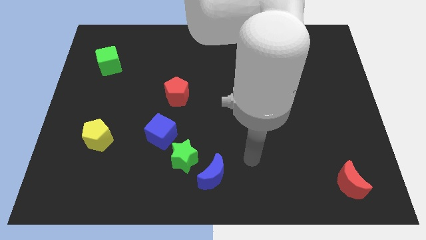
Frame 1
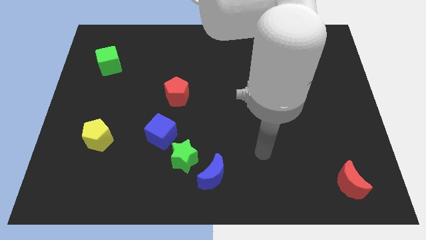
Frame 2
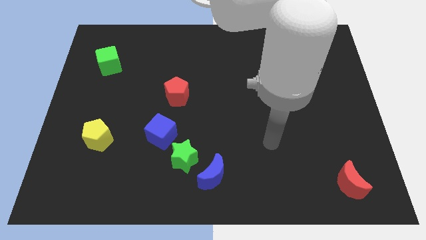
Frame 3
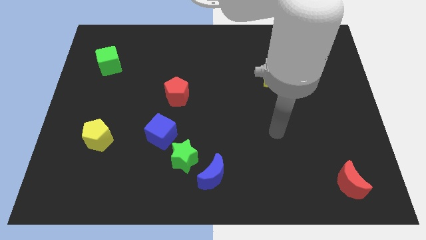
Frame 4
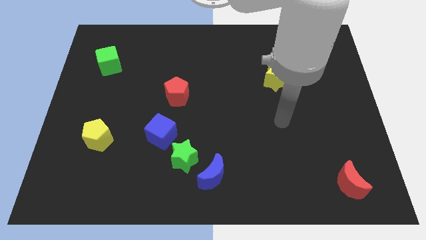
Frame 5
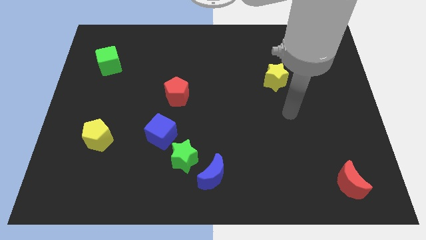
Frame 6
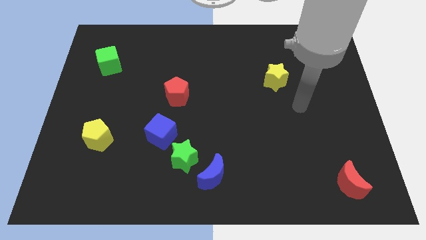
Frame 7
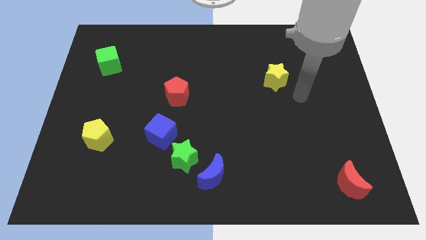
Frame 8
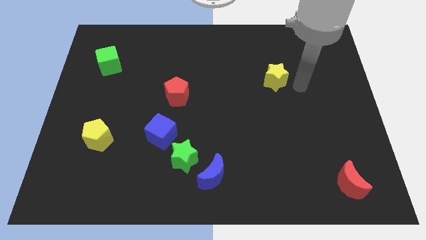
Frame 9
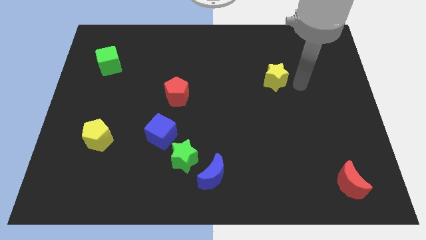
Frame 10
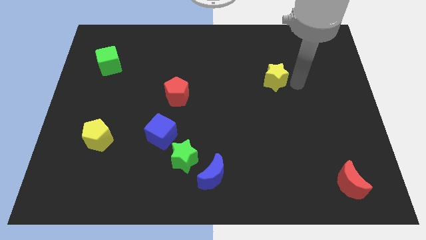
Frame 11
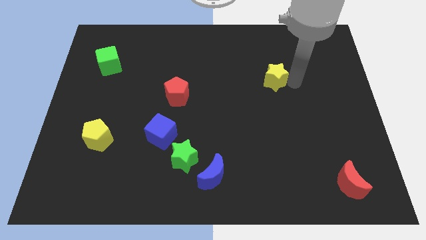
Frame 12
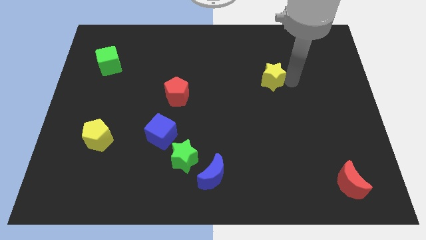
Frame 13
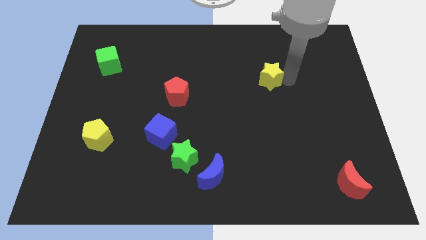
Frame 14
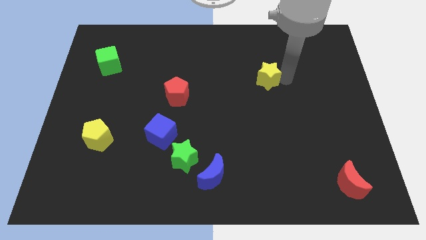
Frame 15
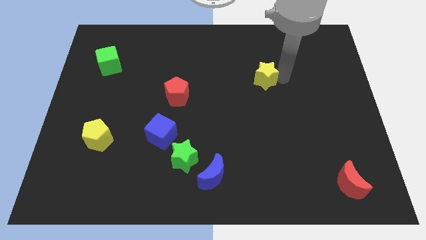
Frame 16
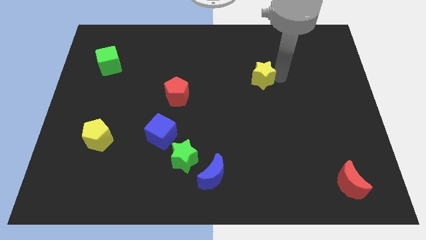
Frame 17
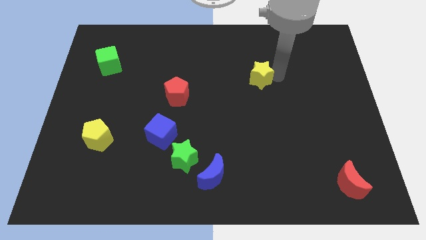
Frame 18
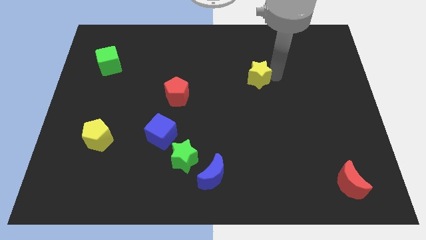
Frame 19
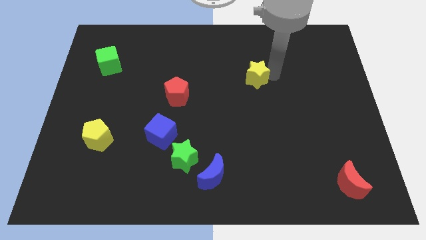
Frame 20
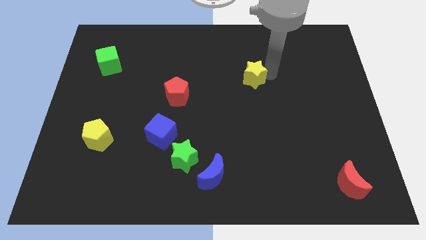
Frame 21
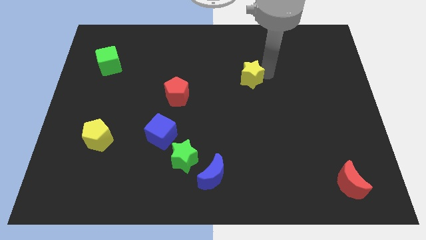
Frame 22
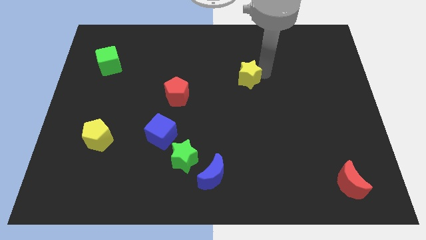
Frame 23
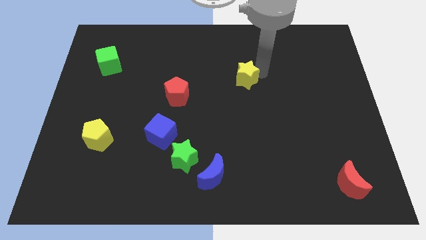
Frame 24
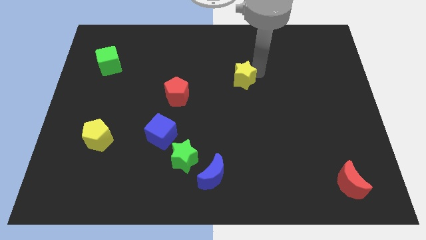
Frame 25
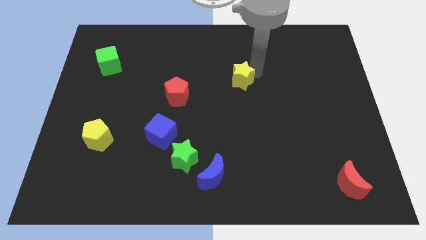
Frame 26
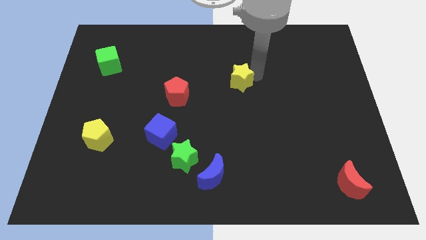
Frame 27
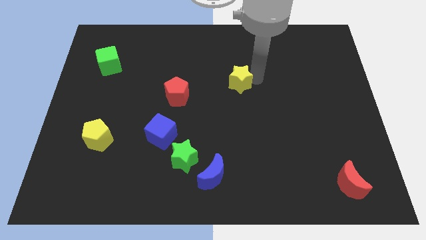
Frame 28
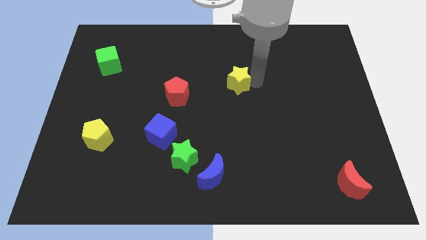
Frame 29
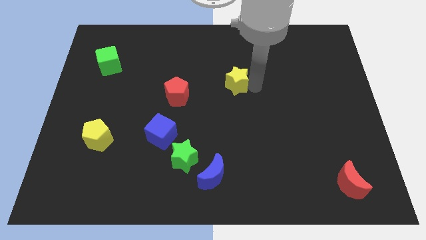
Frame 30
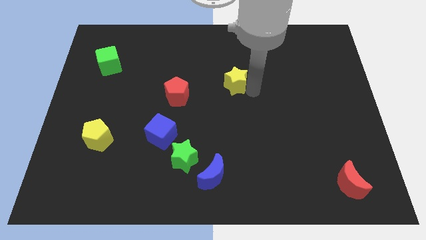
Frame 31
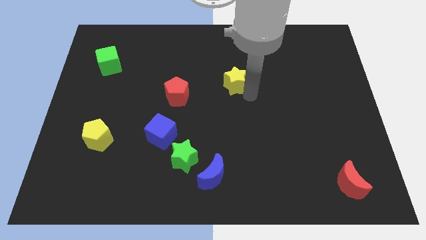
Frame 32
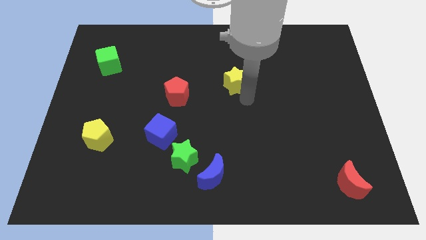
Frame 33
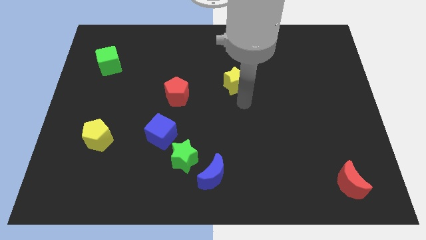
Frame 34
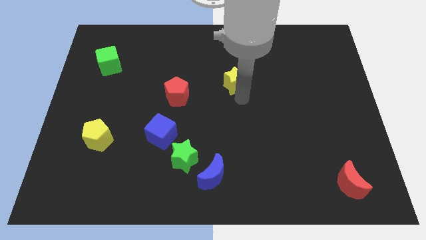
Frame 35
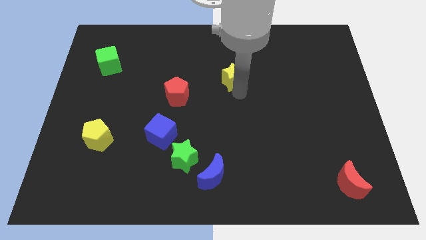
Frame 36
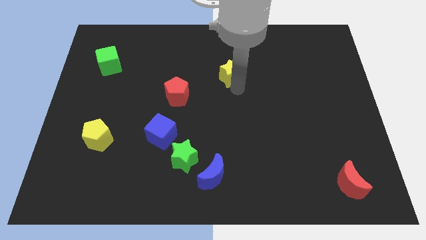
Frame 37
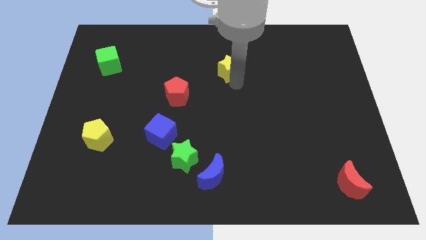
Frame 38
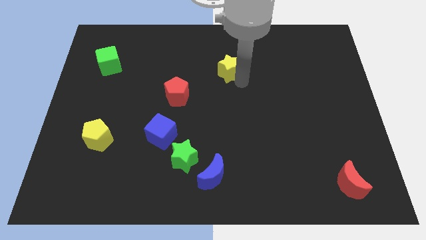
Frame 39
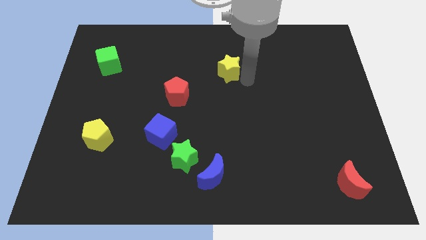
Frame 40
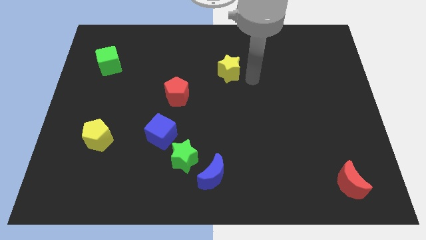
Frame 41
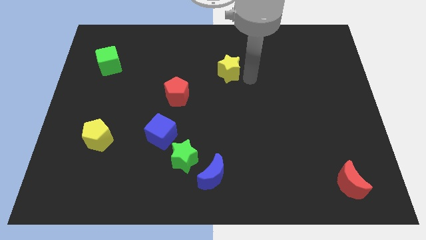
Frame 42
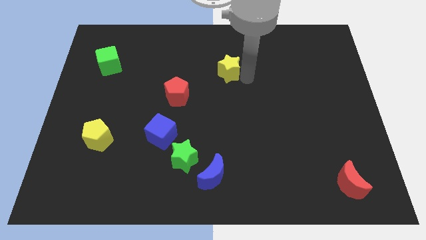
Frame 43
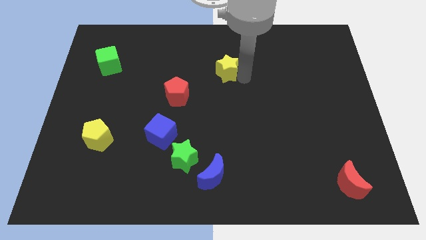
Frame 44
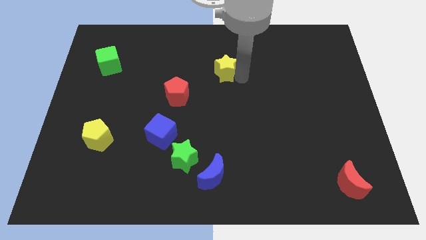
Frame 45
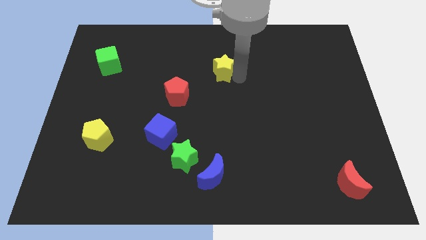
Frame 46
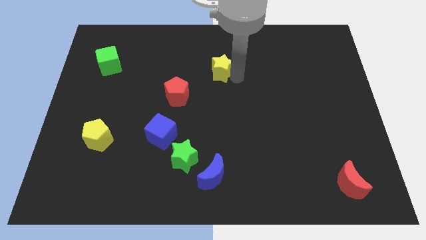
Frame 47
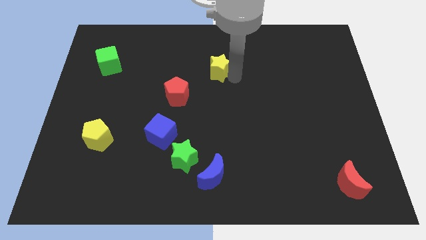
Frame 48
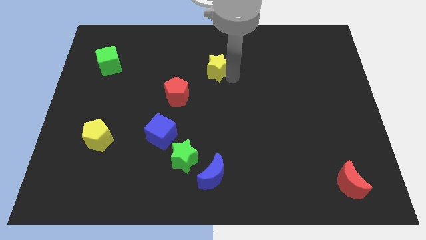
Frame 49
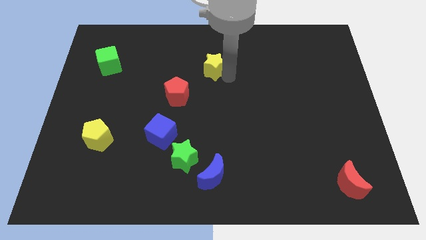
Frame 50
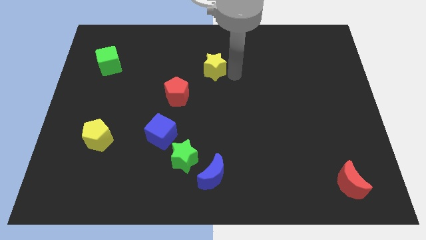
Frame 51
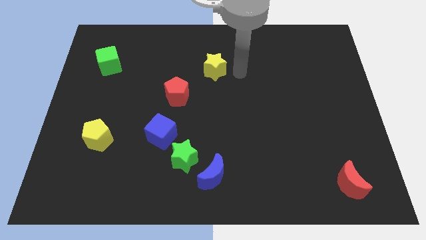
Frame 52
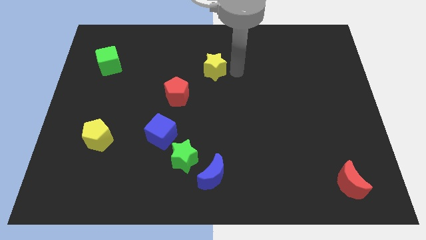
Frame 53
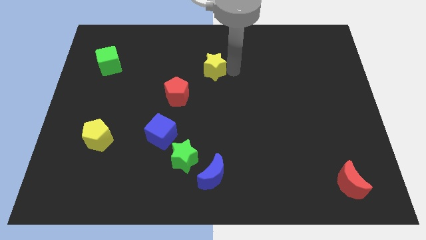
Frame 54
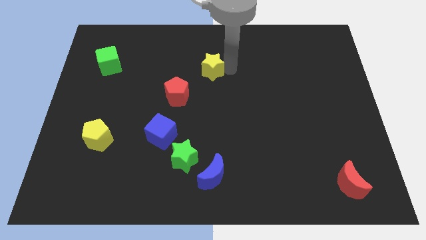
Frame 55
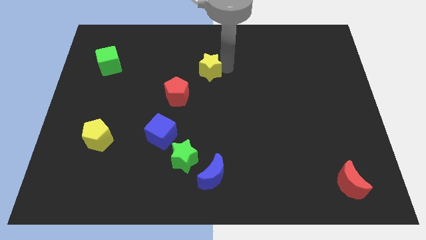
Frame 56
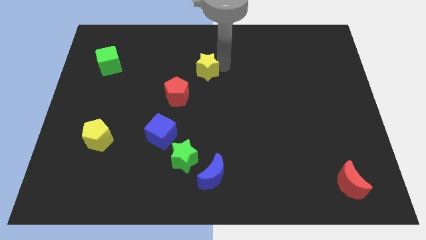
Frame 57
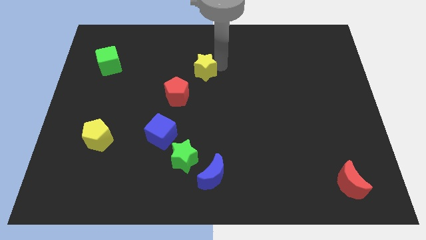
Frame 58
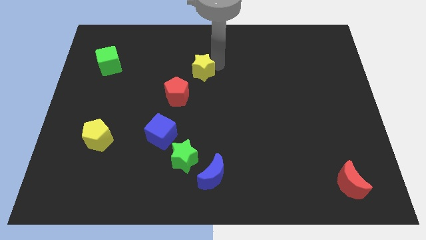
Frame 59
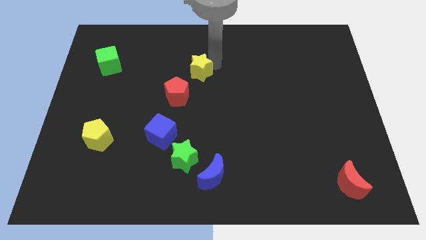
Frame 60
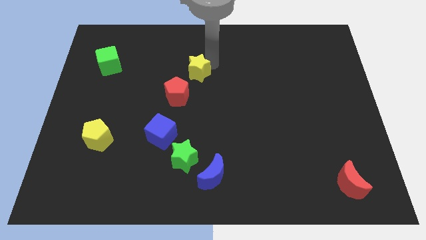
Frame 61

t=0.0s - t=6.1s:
push the yellow star to the top of the red pentagon
